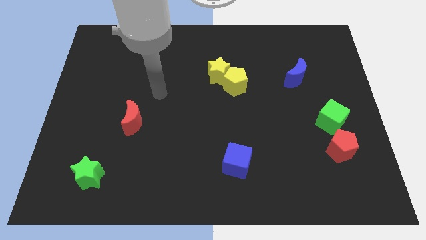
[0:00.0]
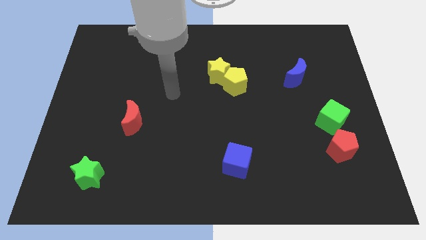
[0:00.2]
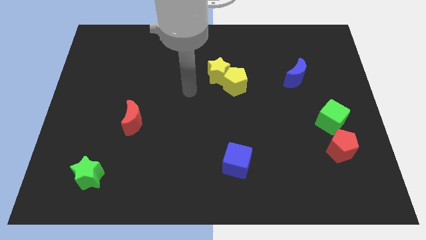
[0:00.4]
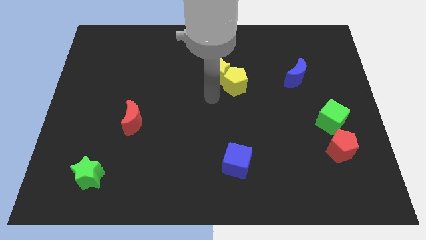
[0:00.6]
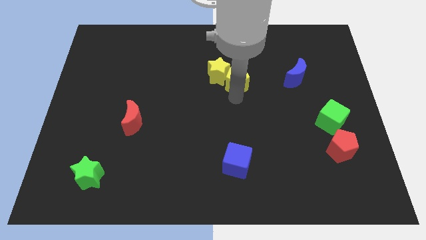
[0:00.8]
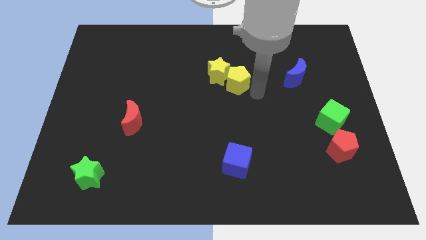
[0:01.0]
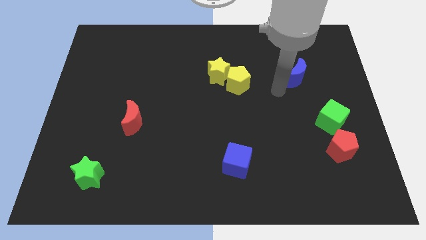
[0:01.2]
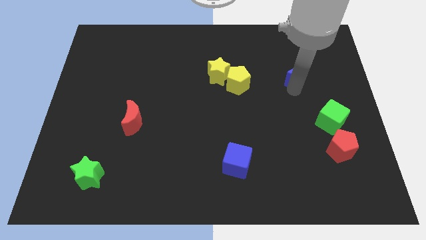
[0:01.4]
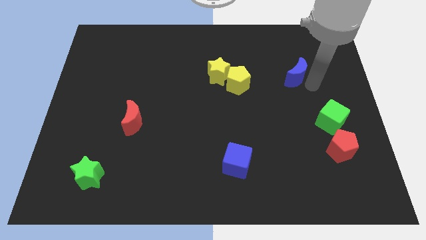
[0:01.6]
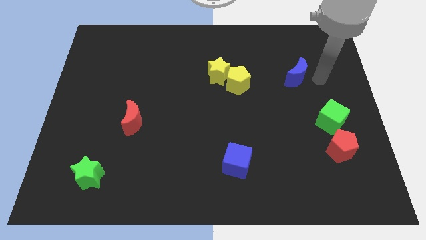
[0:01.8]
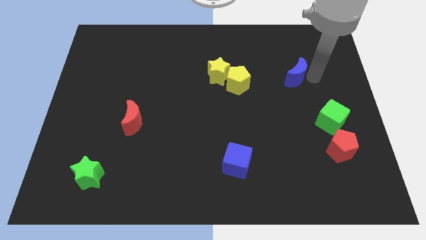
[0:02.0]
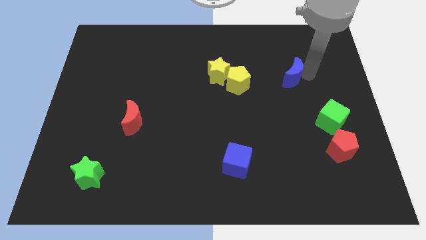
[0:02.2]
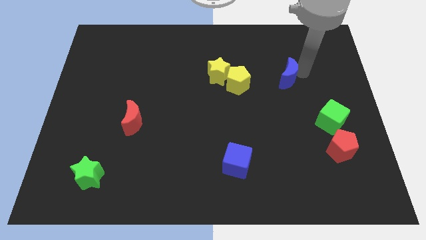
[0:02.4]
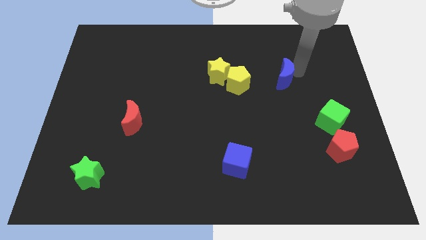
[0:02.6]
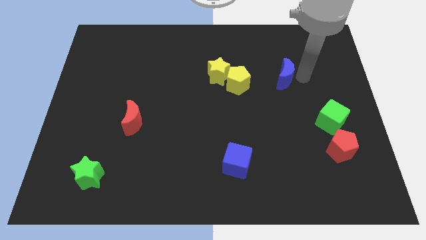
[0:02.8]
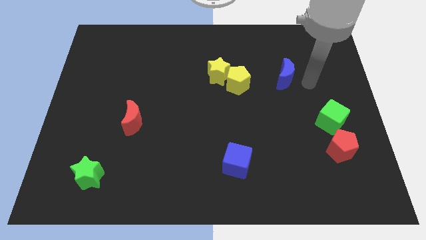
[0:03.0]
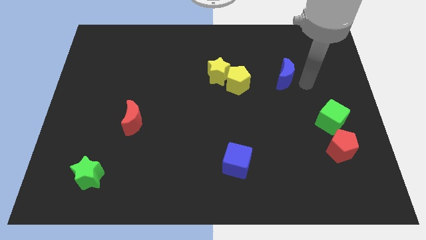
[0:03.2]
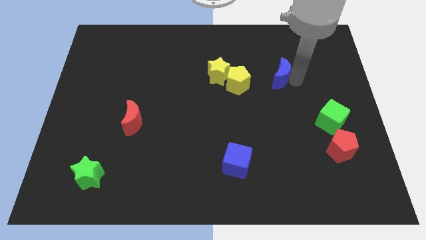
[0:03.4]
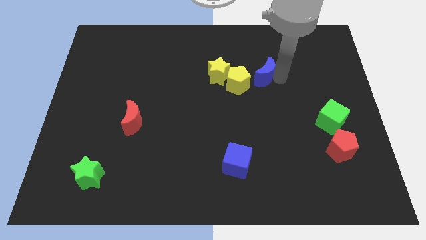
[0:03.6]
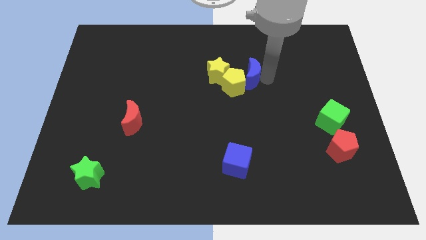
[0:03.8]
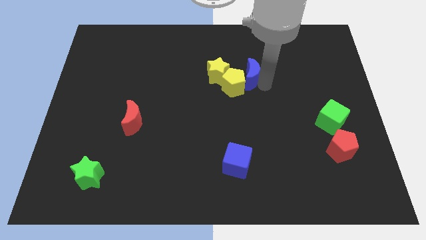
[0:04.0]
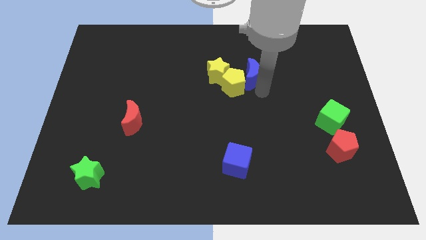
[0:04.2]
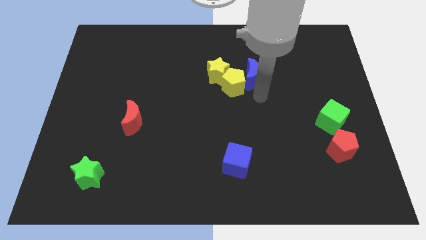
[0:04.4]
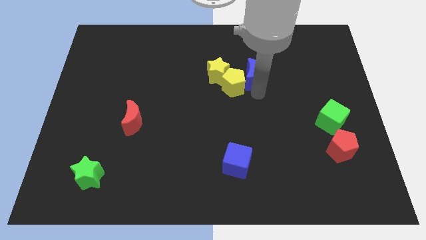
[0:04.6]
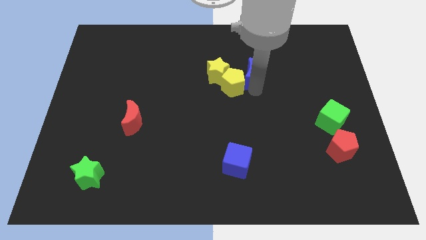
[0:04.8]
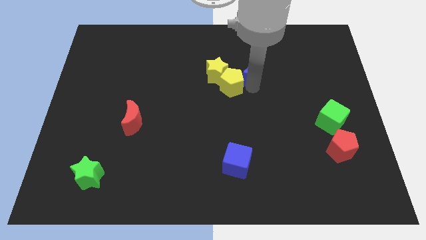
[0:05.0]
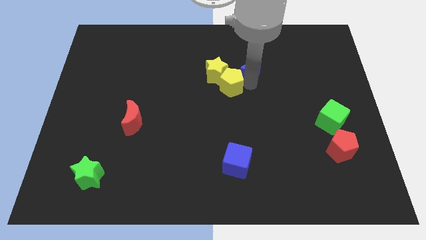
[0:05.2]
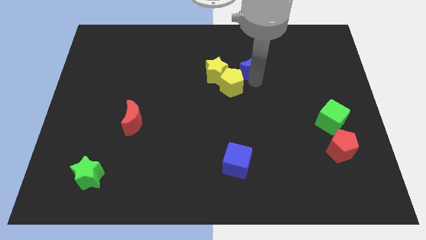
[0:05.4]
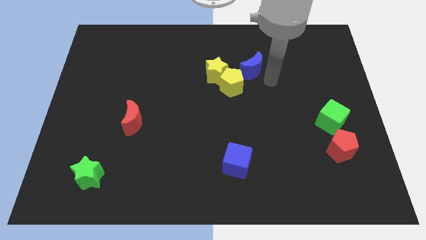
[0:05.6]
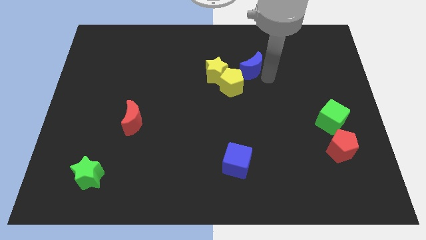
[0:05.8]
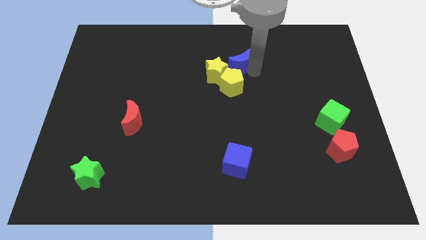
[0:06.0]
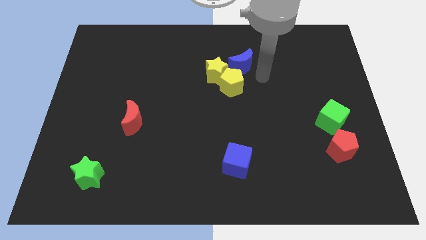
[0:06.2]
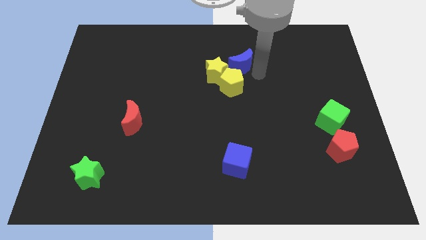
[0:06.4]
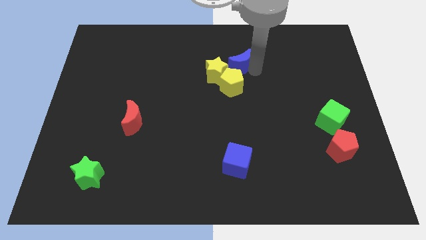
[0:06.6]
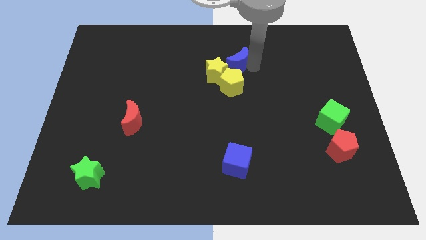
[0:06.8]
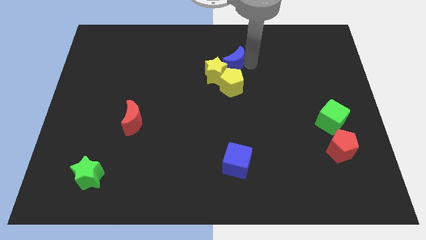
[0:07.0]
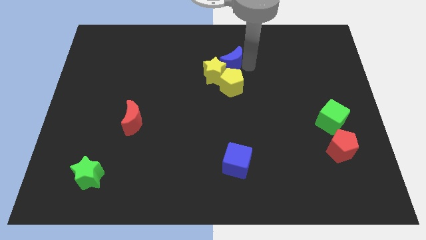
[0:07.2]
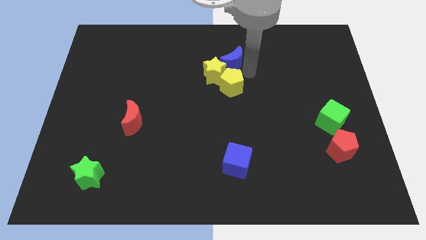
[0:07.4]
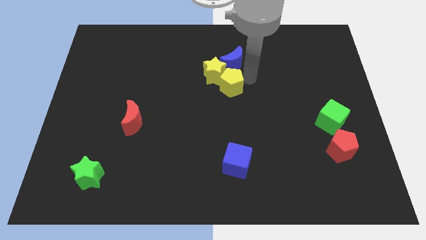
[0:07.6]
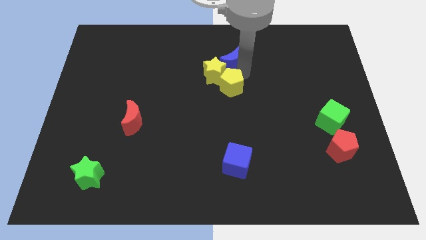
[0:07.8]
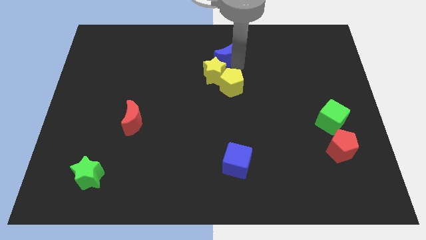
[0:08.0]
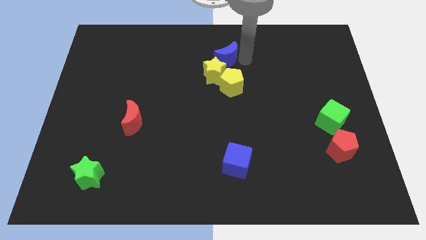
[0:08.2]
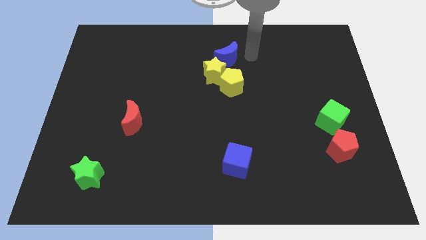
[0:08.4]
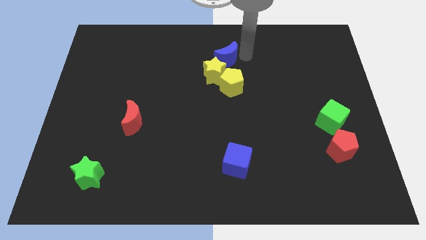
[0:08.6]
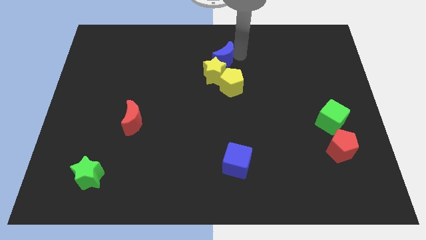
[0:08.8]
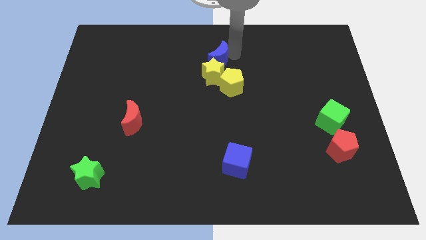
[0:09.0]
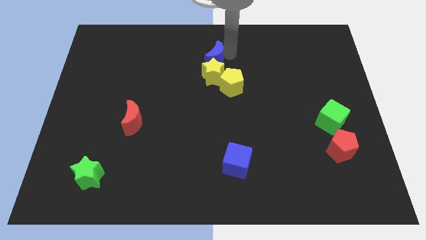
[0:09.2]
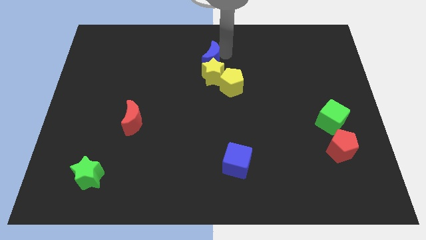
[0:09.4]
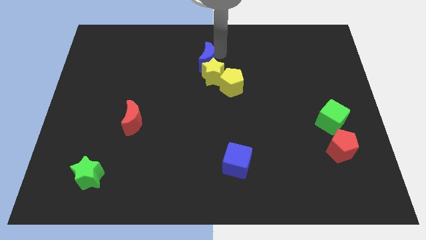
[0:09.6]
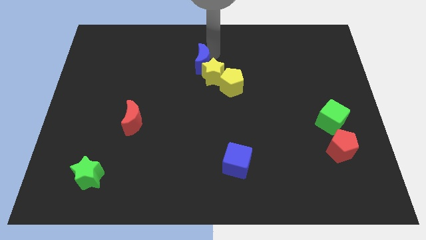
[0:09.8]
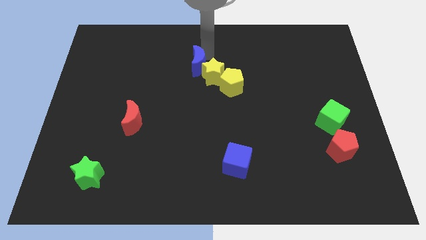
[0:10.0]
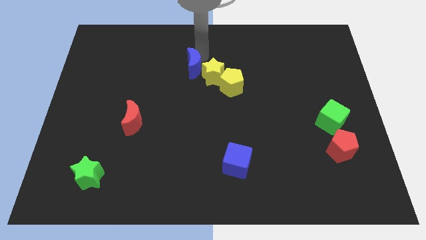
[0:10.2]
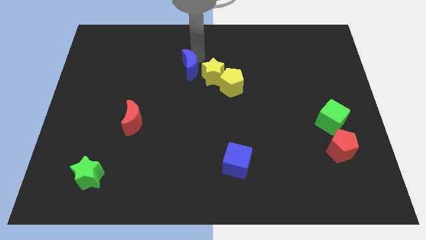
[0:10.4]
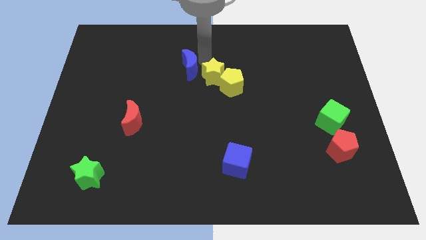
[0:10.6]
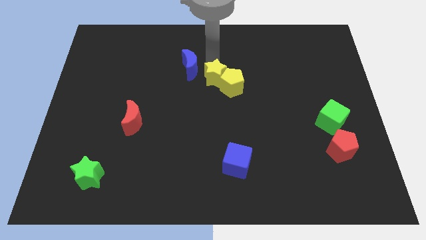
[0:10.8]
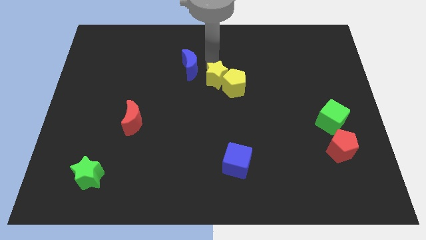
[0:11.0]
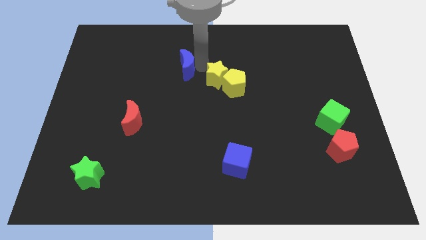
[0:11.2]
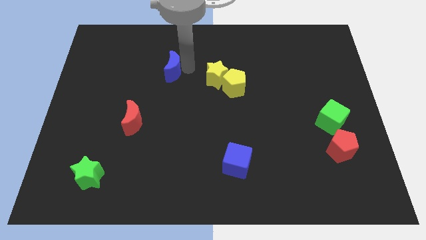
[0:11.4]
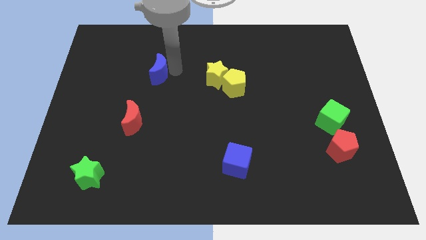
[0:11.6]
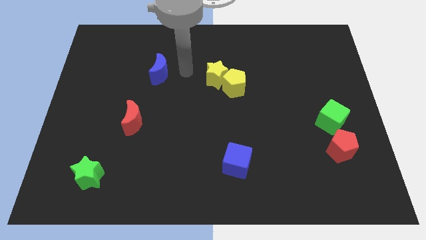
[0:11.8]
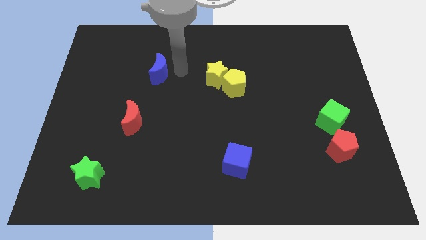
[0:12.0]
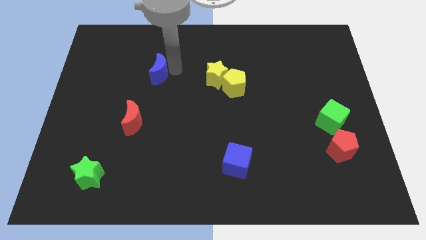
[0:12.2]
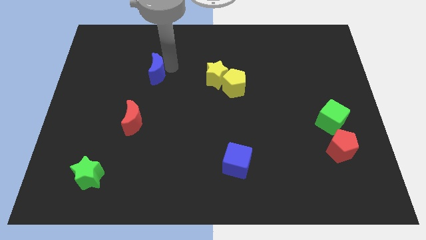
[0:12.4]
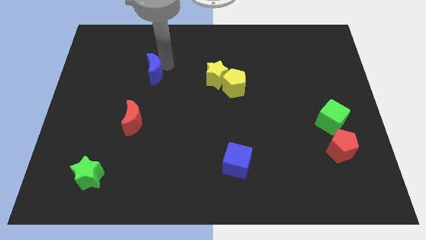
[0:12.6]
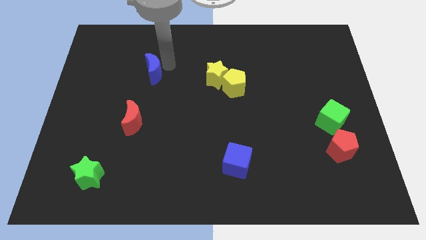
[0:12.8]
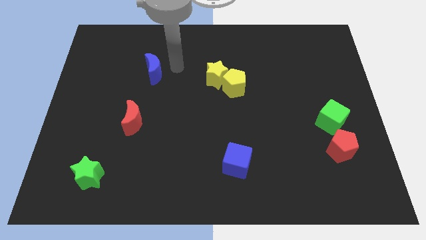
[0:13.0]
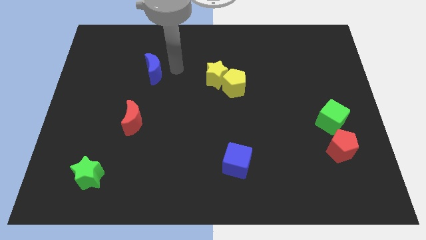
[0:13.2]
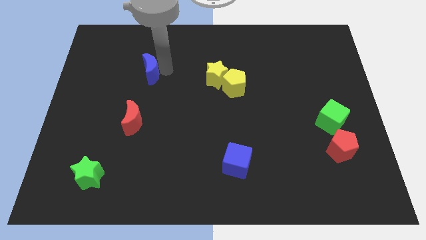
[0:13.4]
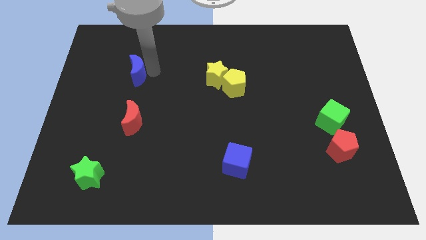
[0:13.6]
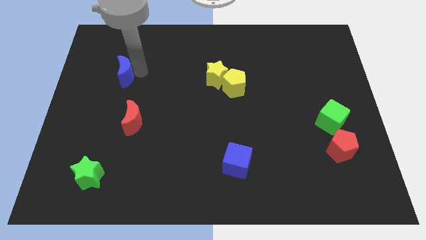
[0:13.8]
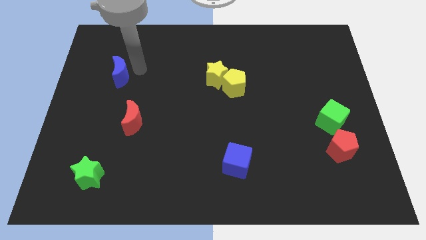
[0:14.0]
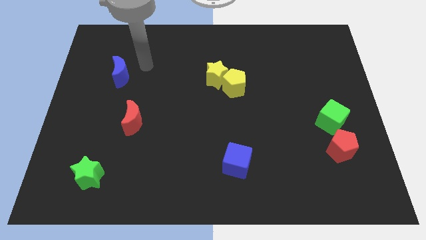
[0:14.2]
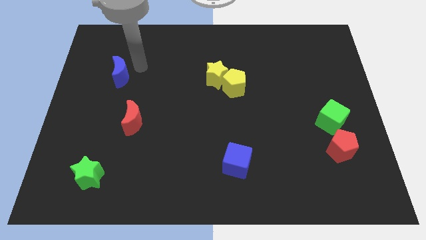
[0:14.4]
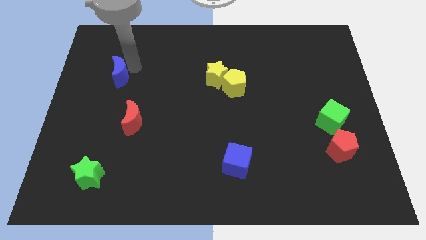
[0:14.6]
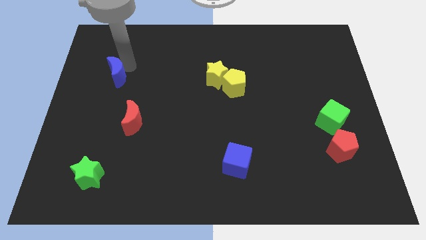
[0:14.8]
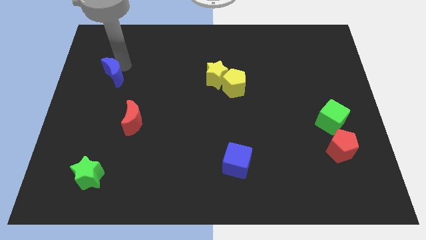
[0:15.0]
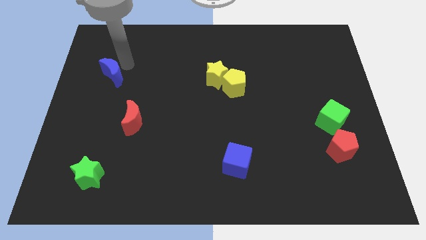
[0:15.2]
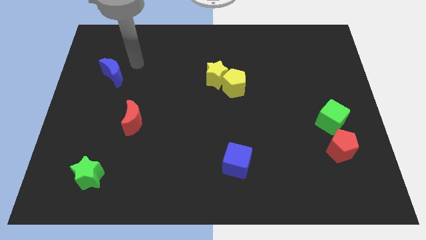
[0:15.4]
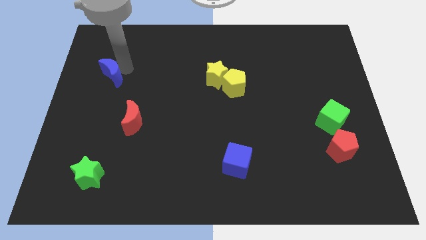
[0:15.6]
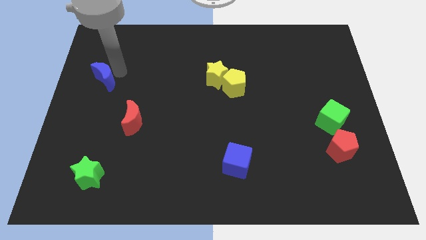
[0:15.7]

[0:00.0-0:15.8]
push the blue moon to the left side of the board
